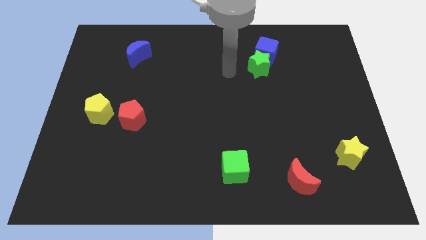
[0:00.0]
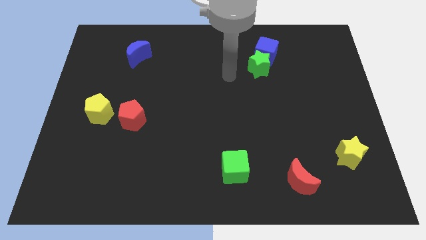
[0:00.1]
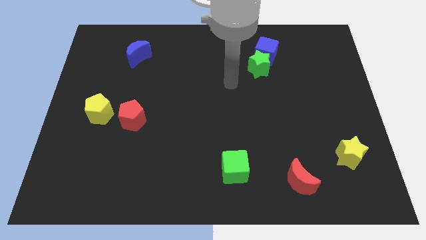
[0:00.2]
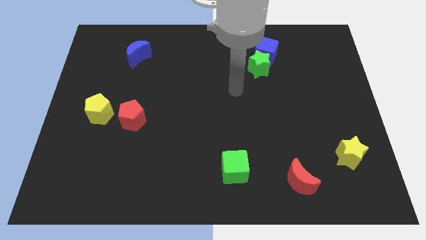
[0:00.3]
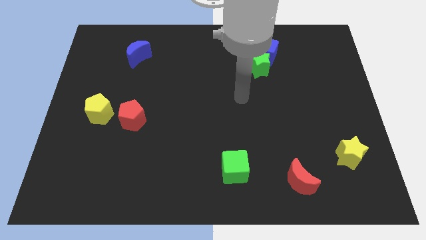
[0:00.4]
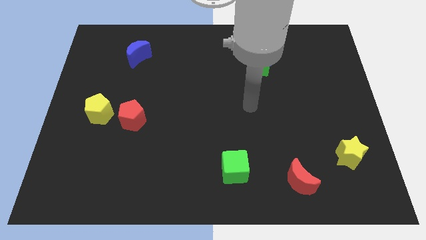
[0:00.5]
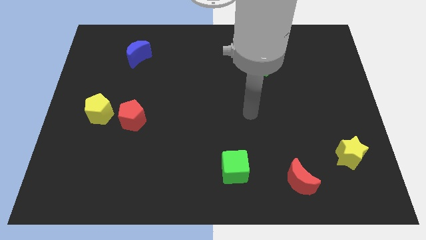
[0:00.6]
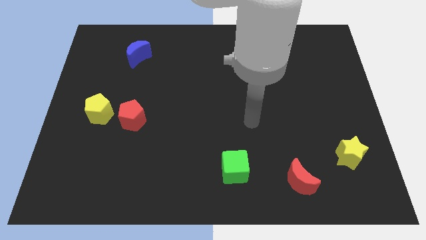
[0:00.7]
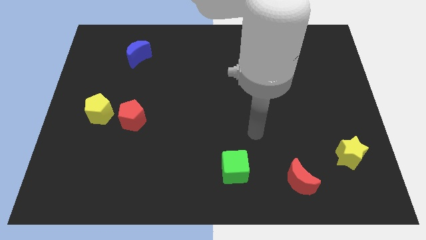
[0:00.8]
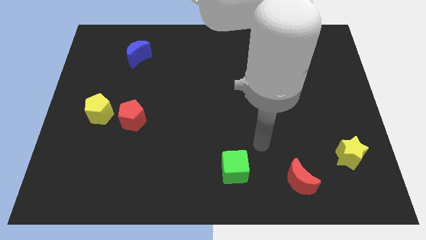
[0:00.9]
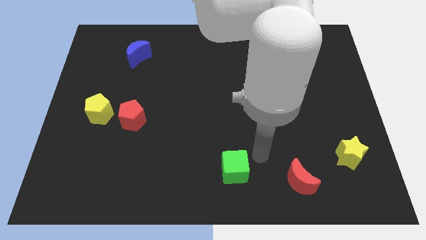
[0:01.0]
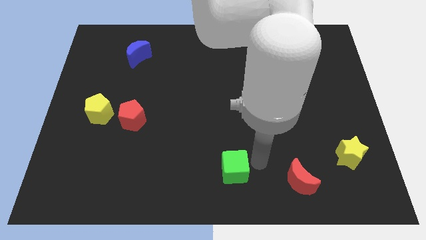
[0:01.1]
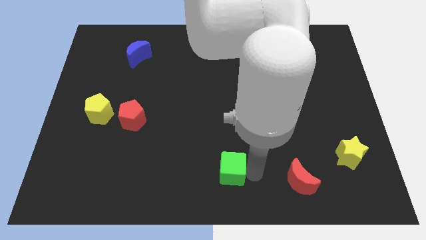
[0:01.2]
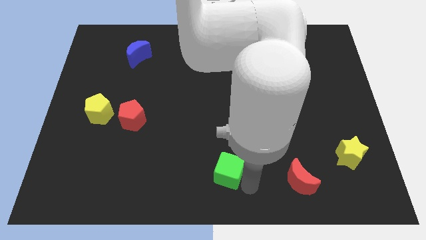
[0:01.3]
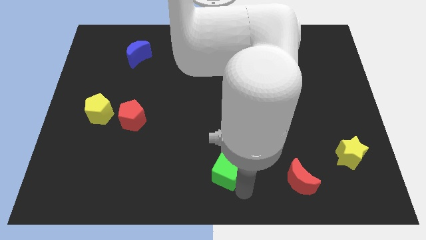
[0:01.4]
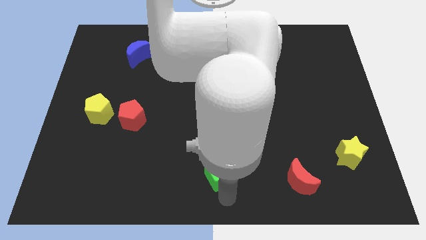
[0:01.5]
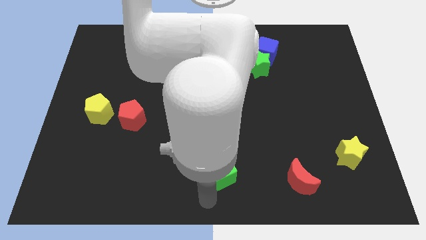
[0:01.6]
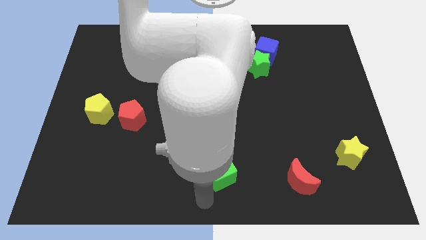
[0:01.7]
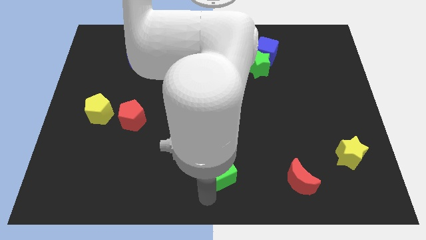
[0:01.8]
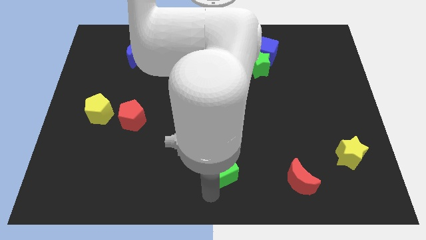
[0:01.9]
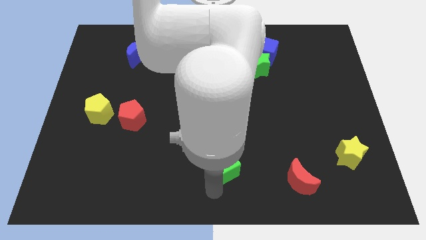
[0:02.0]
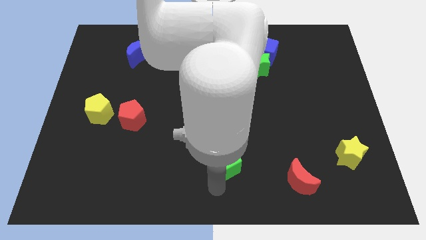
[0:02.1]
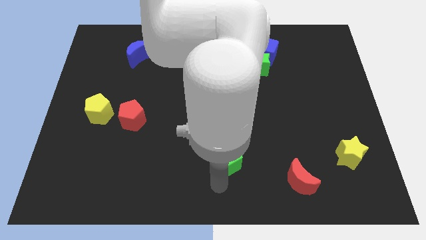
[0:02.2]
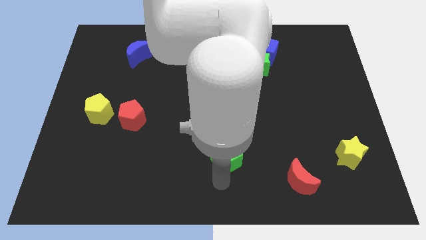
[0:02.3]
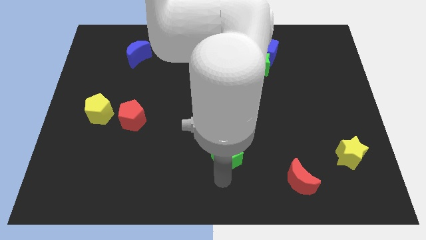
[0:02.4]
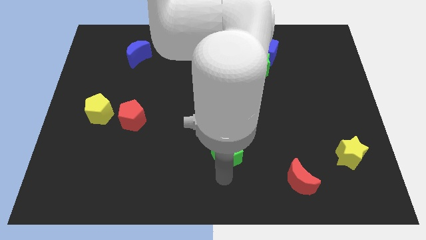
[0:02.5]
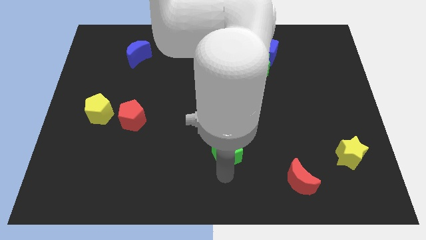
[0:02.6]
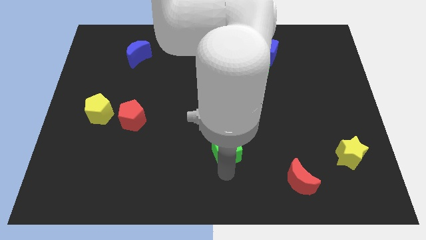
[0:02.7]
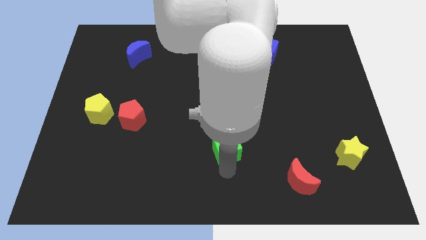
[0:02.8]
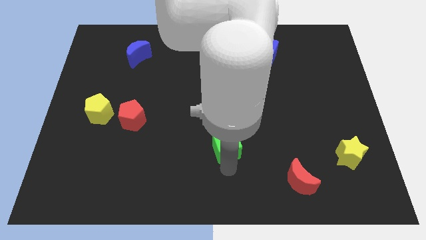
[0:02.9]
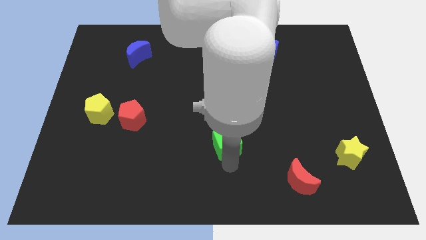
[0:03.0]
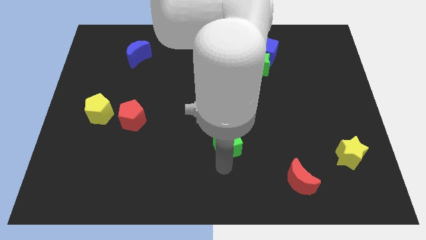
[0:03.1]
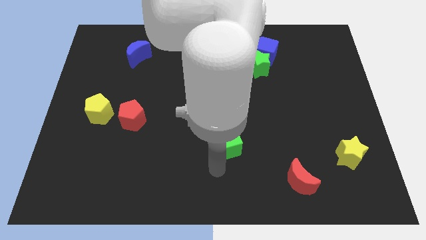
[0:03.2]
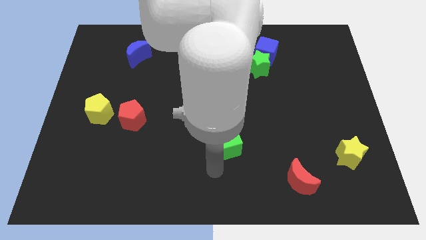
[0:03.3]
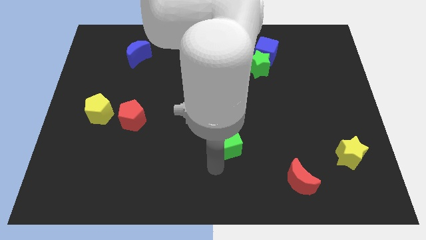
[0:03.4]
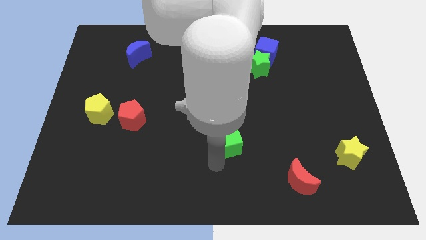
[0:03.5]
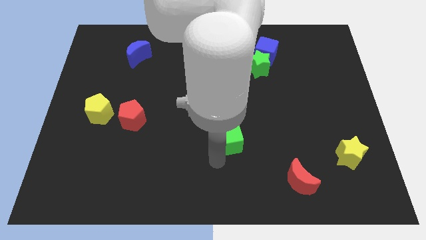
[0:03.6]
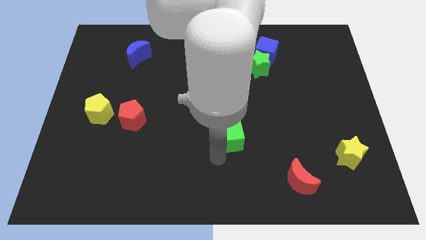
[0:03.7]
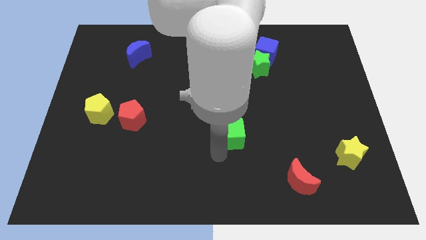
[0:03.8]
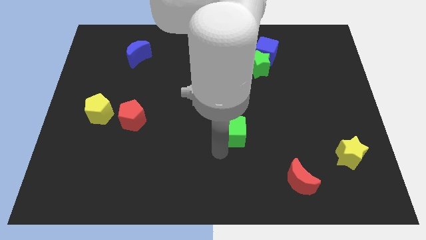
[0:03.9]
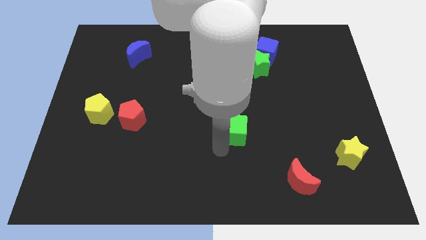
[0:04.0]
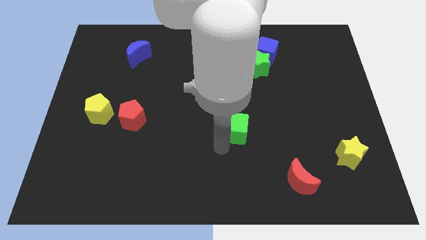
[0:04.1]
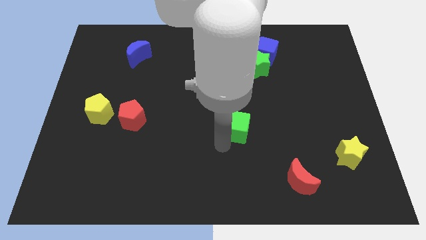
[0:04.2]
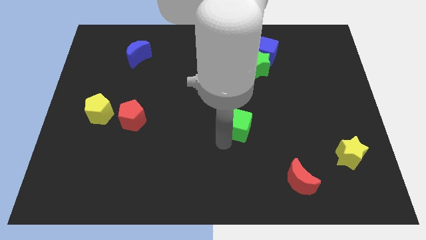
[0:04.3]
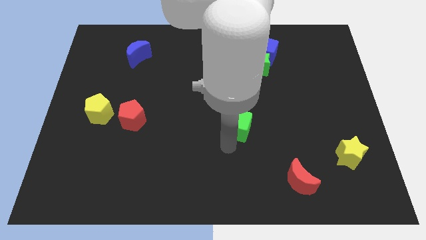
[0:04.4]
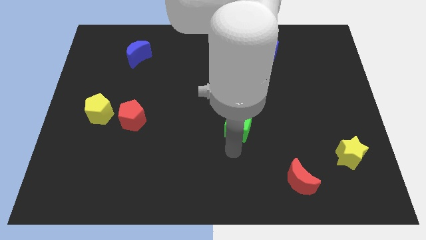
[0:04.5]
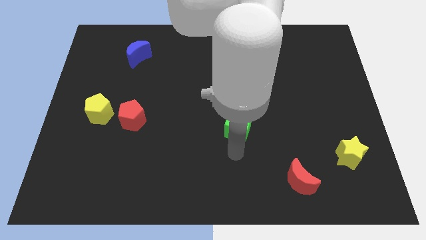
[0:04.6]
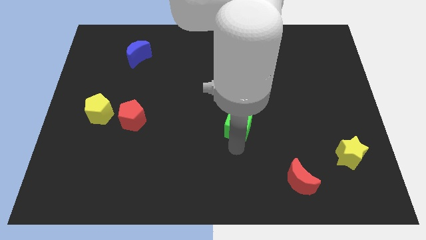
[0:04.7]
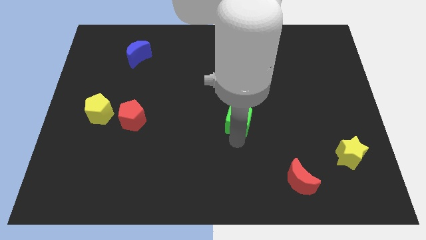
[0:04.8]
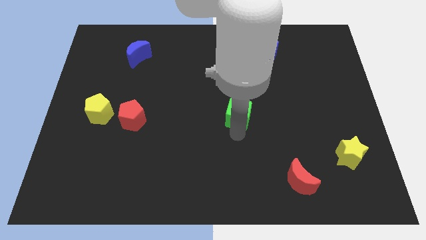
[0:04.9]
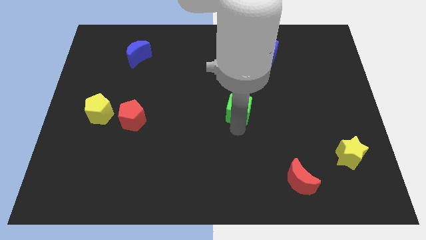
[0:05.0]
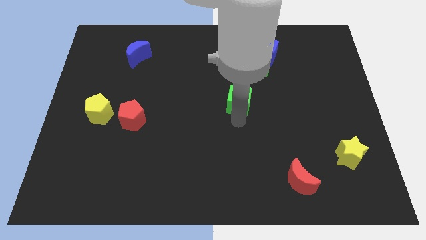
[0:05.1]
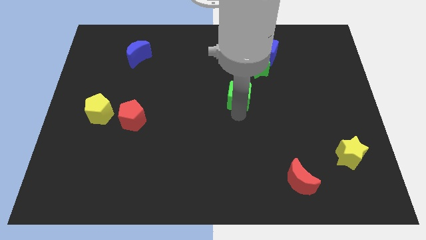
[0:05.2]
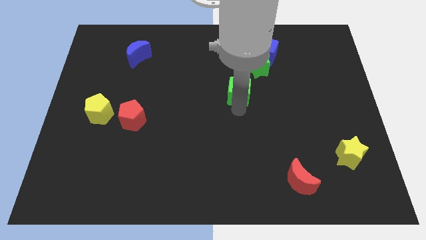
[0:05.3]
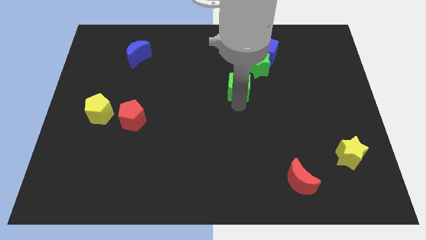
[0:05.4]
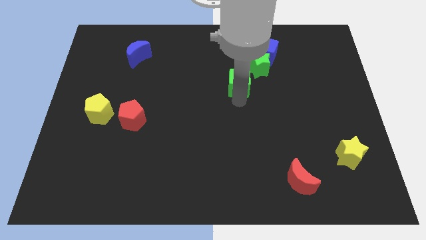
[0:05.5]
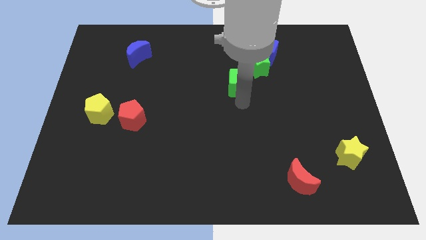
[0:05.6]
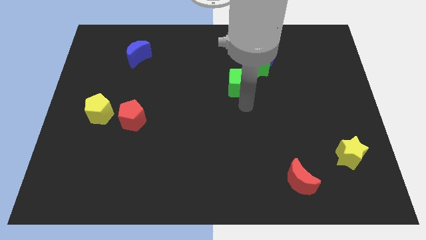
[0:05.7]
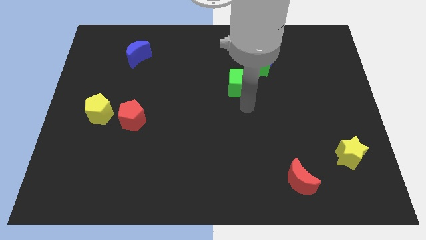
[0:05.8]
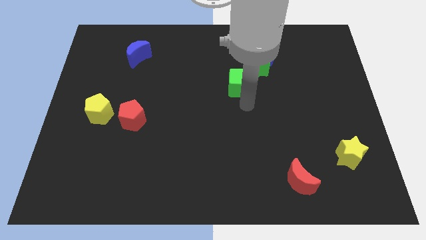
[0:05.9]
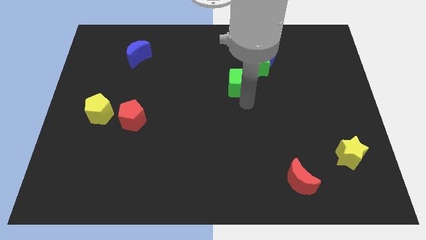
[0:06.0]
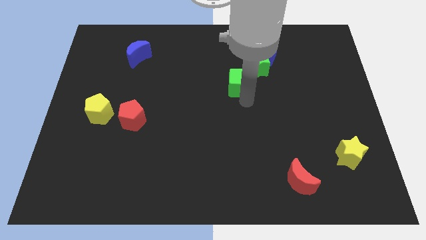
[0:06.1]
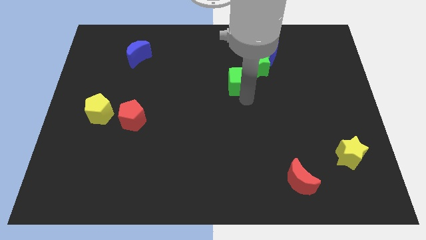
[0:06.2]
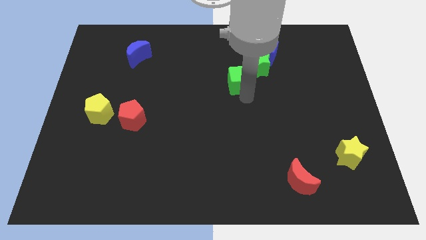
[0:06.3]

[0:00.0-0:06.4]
move the green cube to the bottom left of the blue cube
